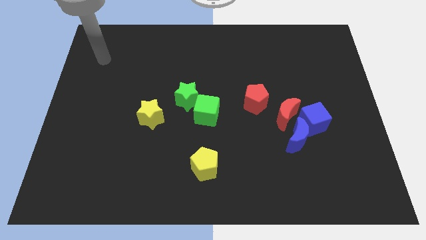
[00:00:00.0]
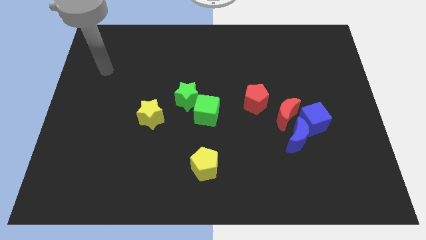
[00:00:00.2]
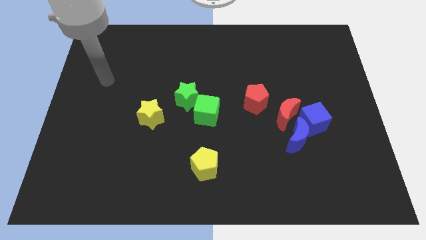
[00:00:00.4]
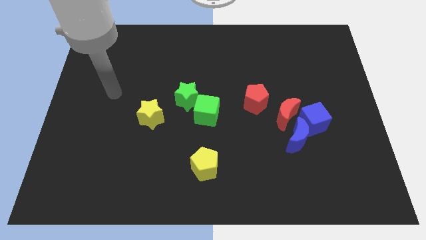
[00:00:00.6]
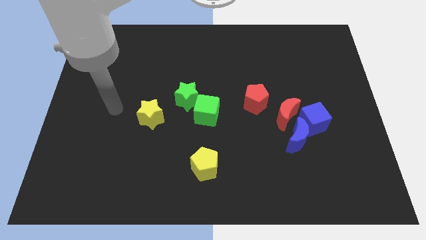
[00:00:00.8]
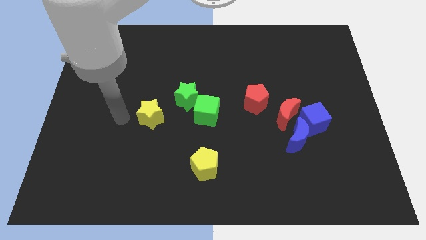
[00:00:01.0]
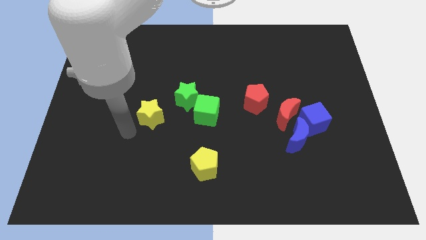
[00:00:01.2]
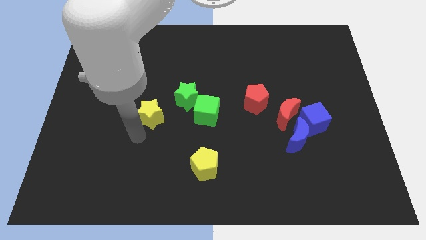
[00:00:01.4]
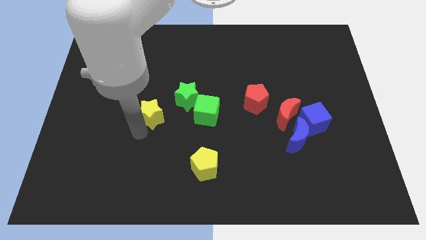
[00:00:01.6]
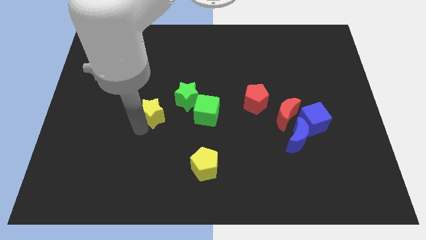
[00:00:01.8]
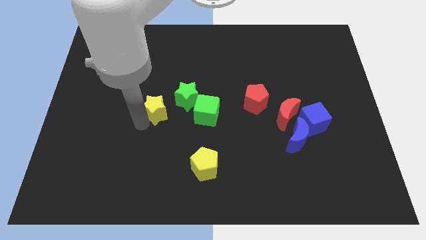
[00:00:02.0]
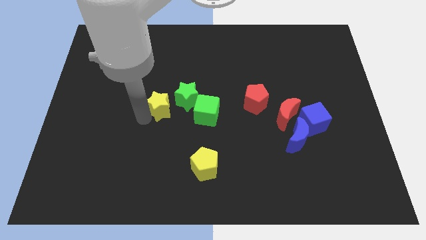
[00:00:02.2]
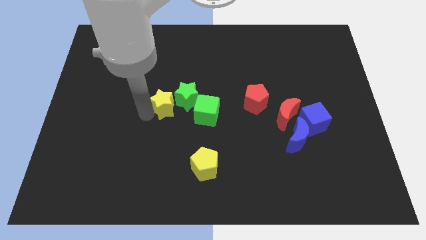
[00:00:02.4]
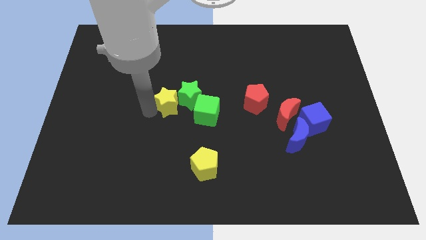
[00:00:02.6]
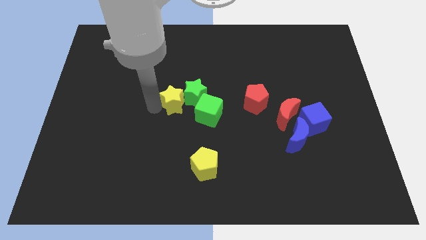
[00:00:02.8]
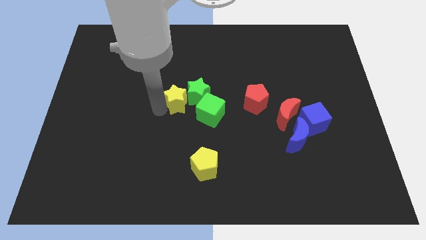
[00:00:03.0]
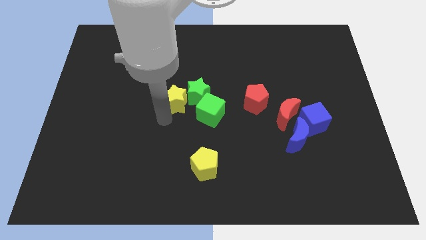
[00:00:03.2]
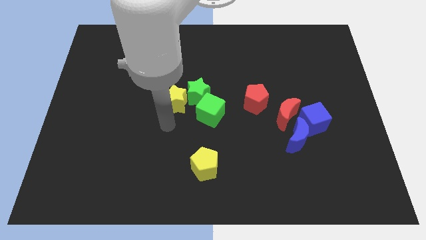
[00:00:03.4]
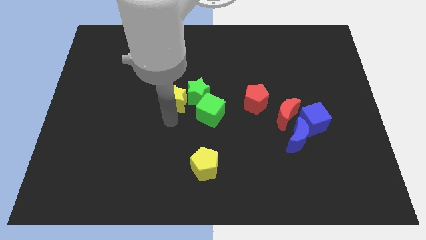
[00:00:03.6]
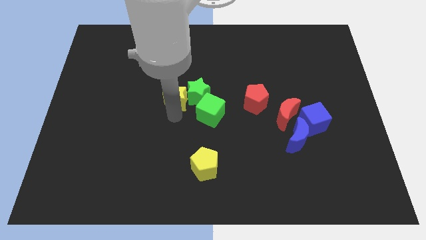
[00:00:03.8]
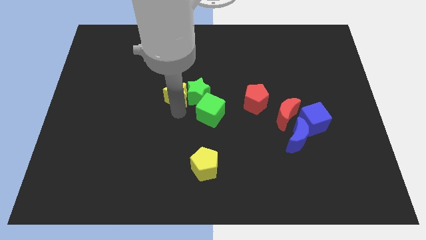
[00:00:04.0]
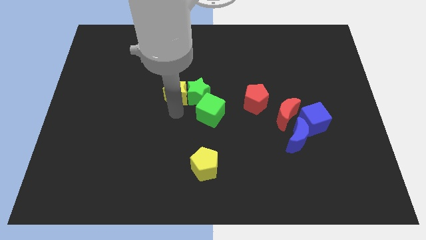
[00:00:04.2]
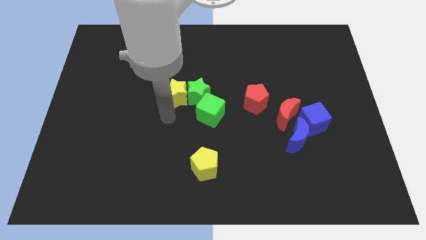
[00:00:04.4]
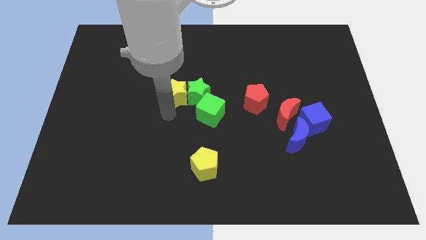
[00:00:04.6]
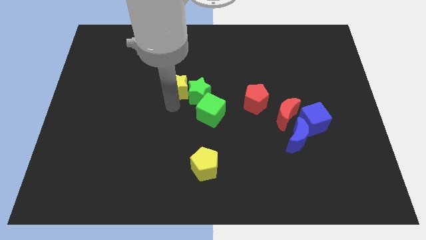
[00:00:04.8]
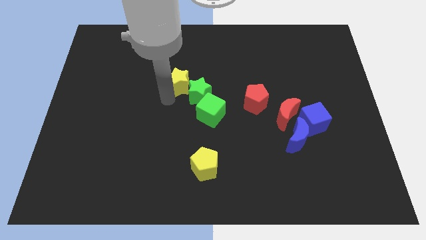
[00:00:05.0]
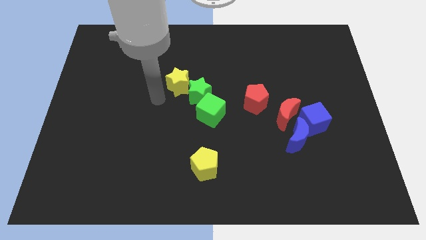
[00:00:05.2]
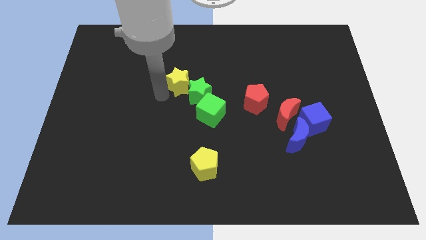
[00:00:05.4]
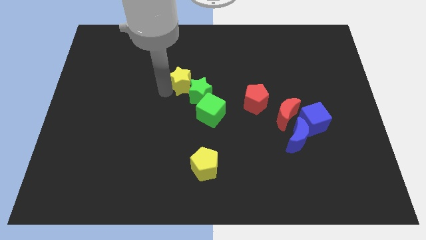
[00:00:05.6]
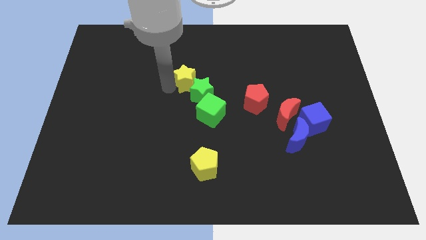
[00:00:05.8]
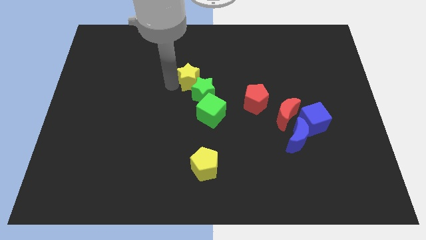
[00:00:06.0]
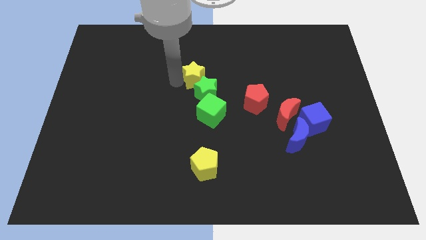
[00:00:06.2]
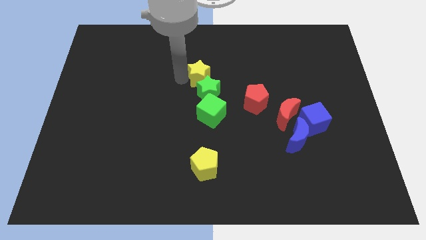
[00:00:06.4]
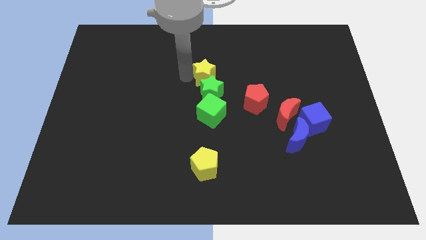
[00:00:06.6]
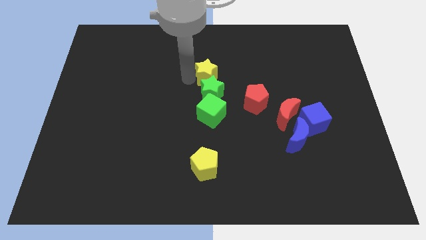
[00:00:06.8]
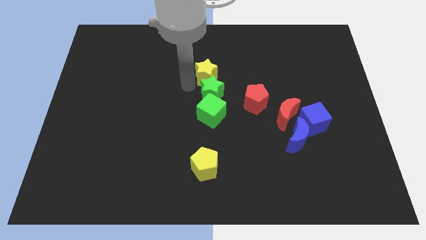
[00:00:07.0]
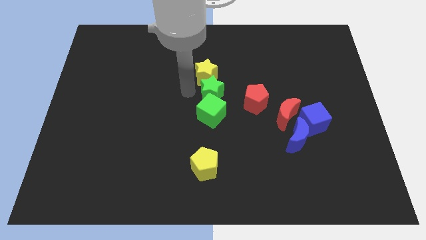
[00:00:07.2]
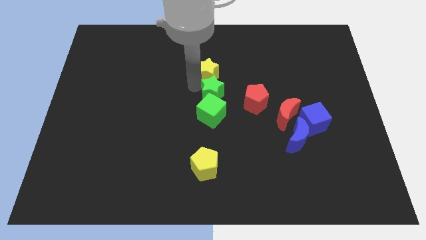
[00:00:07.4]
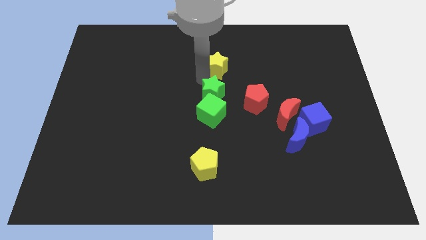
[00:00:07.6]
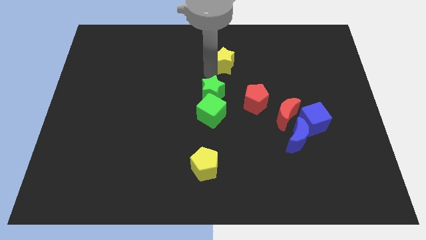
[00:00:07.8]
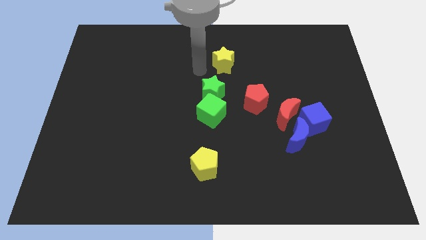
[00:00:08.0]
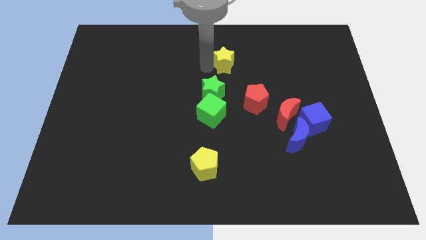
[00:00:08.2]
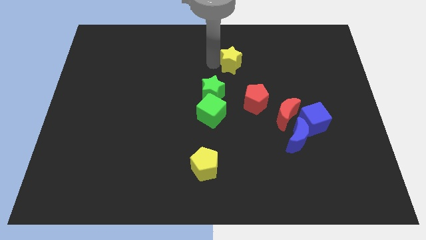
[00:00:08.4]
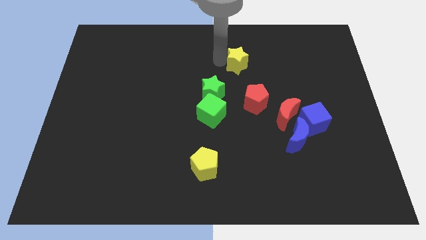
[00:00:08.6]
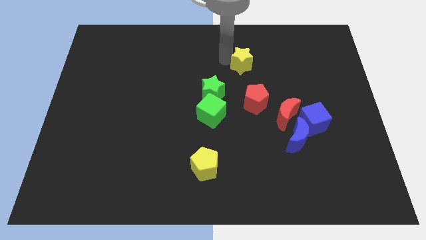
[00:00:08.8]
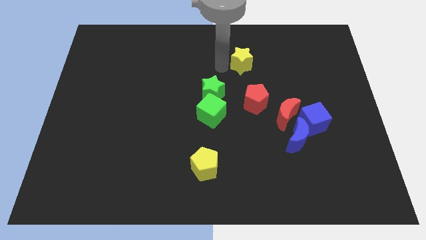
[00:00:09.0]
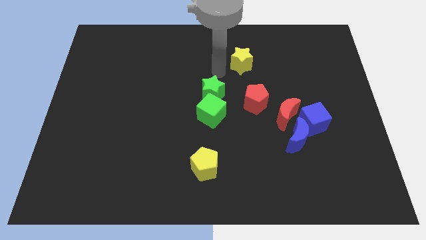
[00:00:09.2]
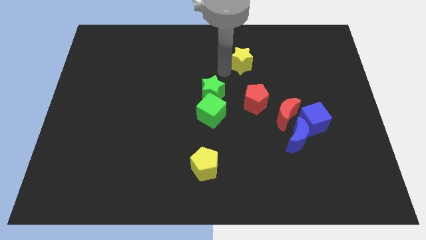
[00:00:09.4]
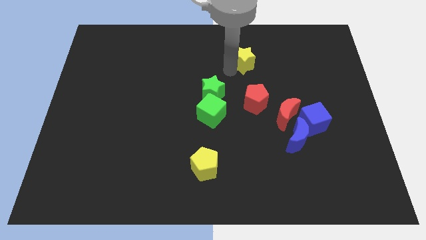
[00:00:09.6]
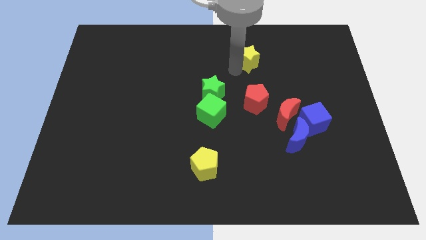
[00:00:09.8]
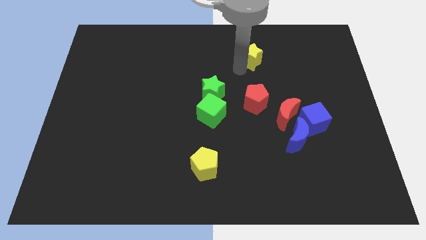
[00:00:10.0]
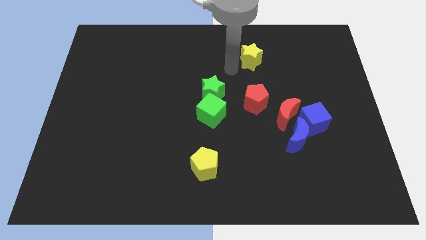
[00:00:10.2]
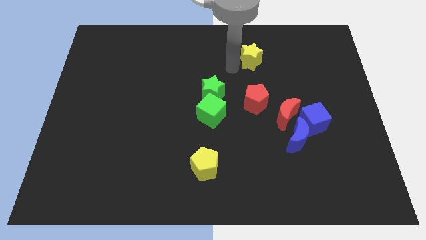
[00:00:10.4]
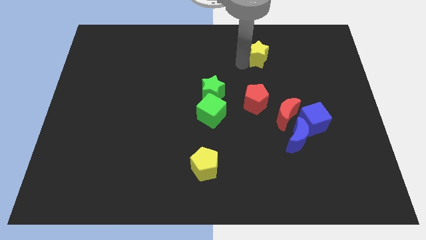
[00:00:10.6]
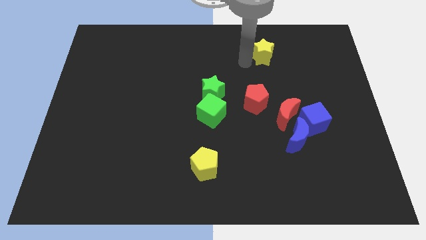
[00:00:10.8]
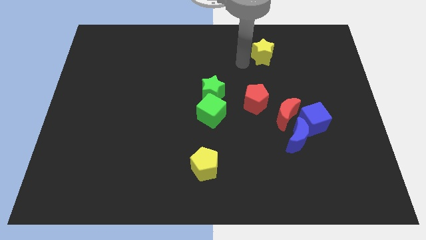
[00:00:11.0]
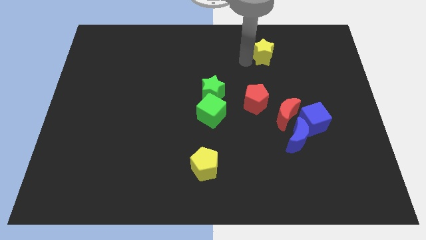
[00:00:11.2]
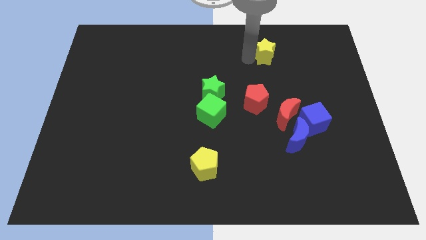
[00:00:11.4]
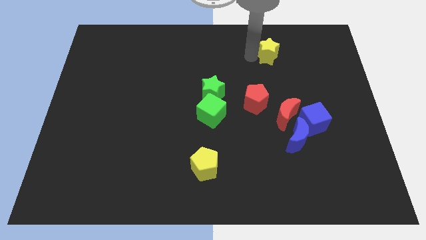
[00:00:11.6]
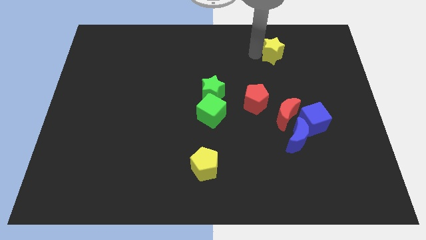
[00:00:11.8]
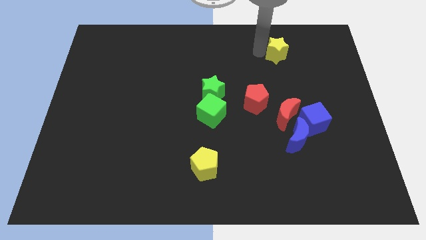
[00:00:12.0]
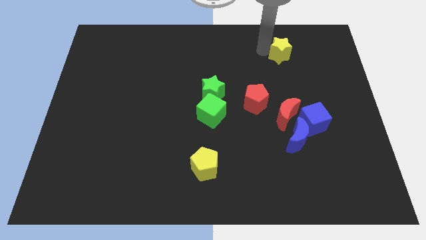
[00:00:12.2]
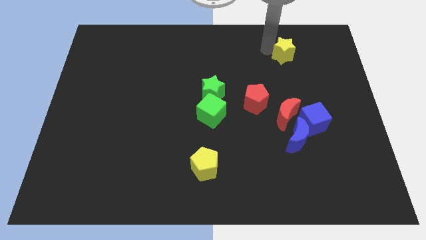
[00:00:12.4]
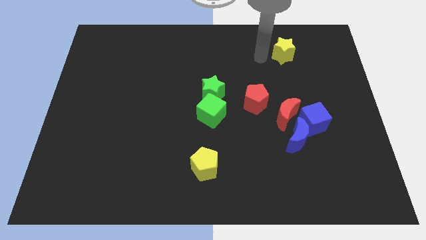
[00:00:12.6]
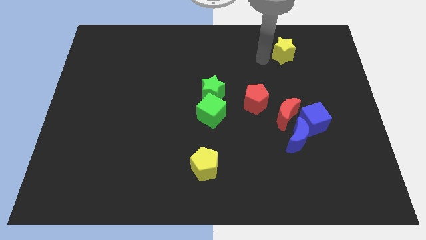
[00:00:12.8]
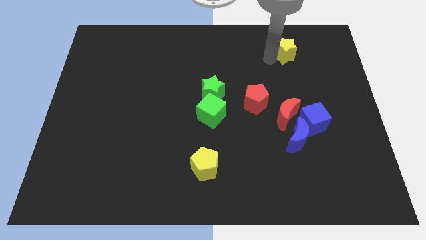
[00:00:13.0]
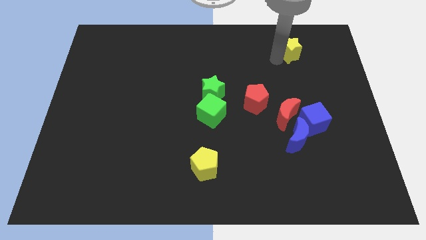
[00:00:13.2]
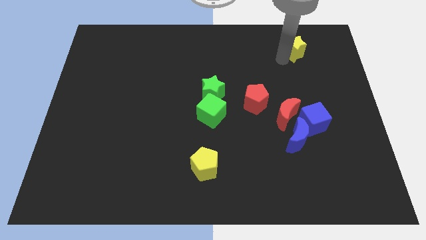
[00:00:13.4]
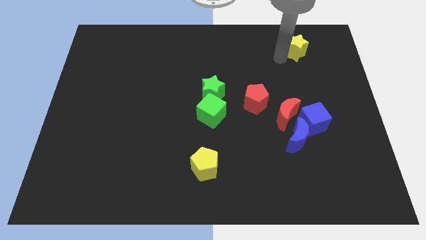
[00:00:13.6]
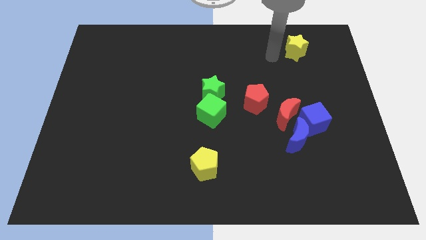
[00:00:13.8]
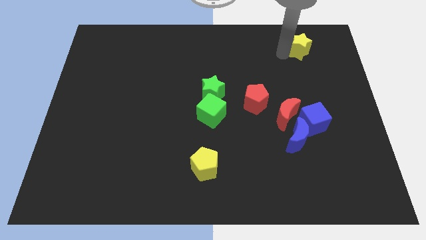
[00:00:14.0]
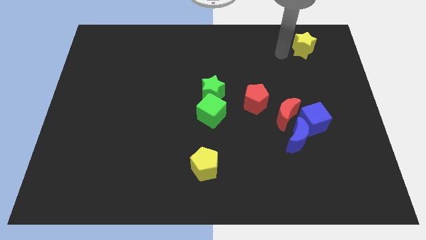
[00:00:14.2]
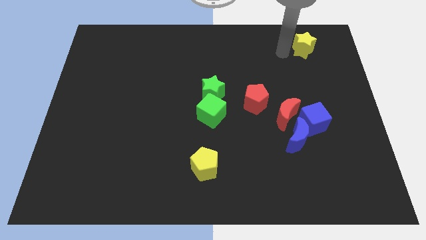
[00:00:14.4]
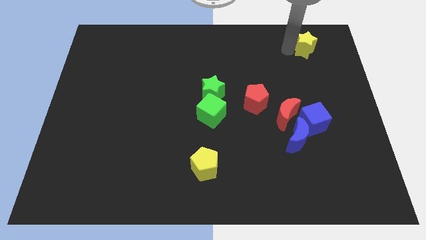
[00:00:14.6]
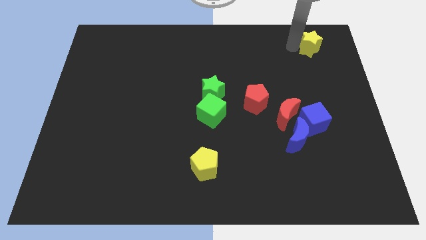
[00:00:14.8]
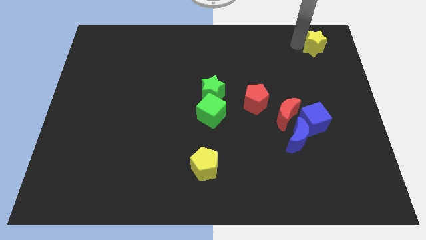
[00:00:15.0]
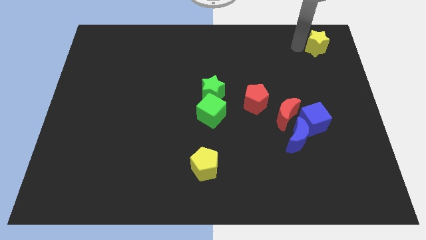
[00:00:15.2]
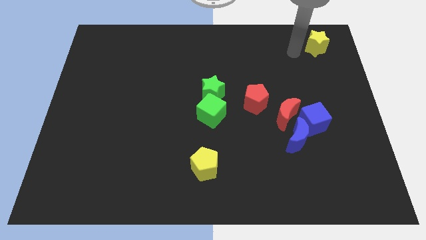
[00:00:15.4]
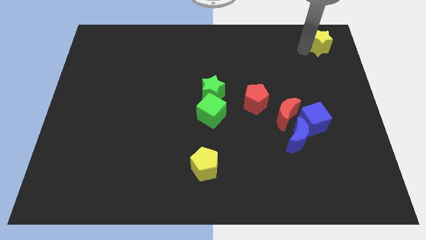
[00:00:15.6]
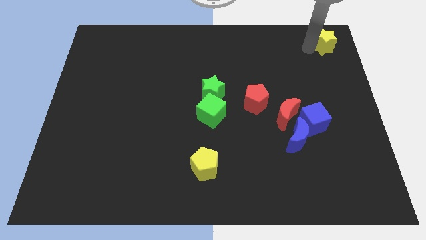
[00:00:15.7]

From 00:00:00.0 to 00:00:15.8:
slide the yellow star to the top right corner
